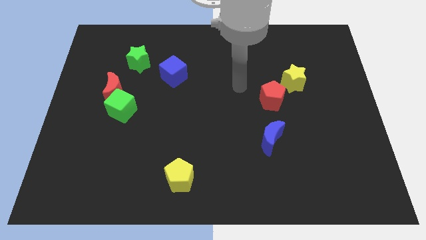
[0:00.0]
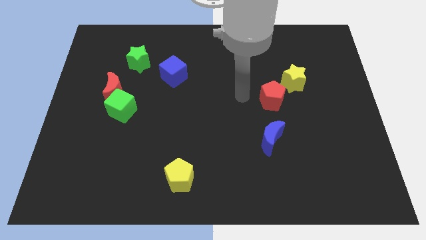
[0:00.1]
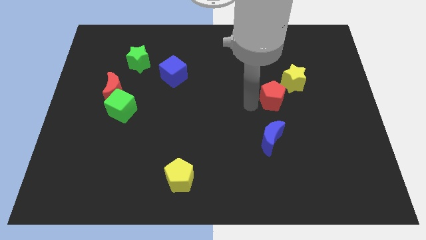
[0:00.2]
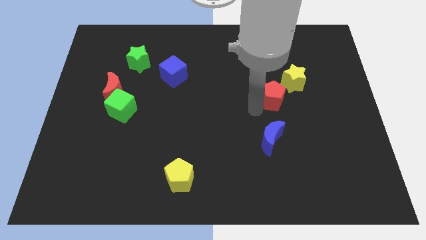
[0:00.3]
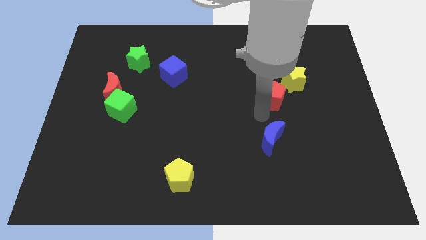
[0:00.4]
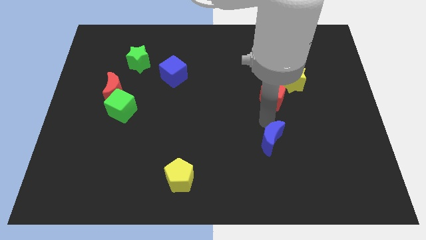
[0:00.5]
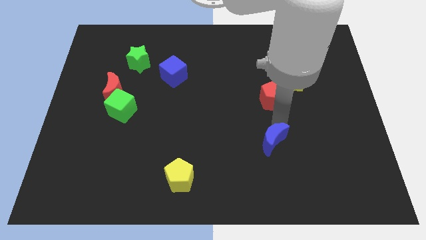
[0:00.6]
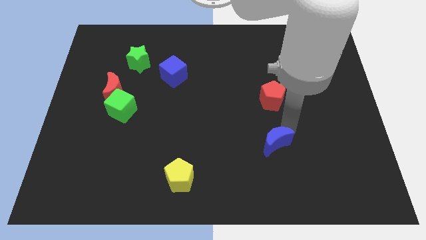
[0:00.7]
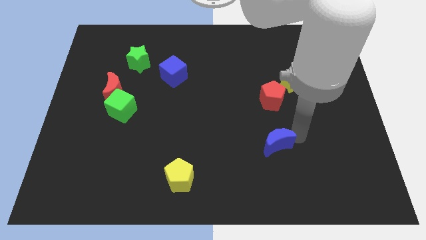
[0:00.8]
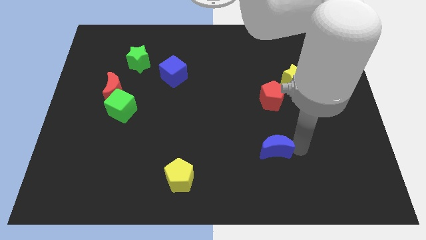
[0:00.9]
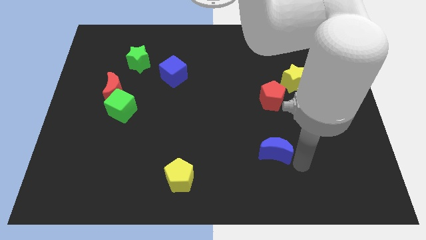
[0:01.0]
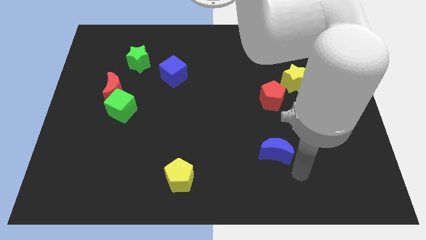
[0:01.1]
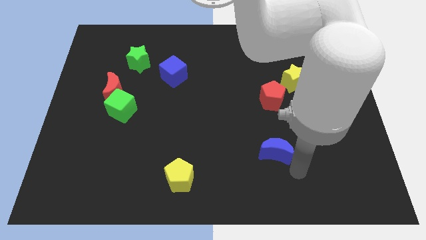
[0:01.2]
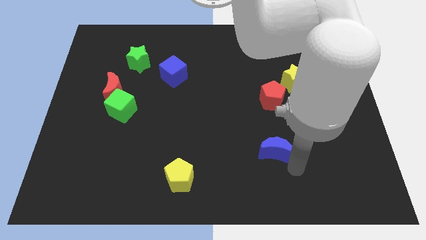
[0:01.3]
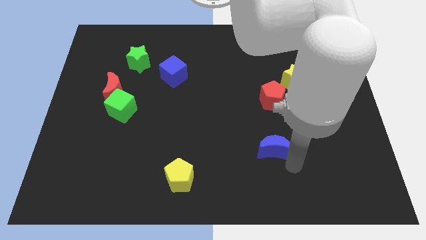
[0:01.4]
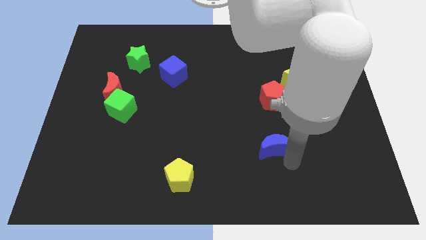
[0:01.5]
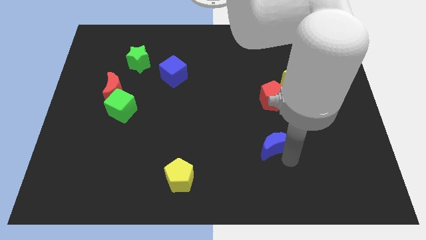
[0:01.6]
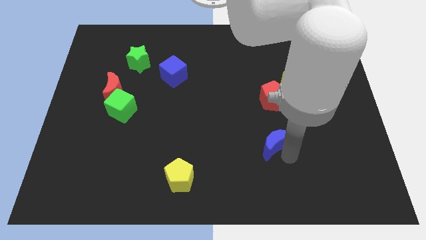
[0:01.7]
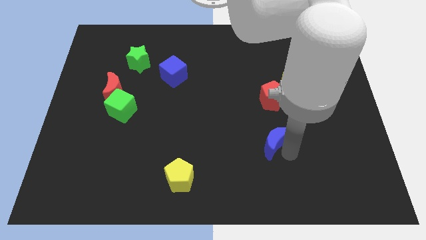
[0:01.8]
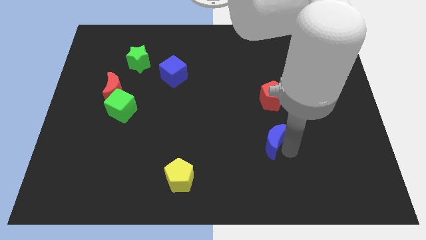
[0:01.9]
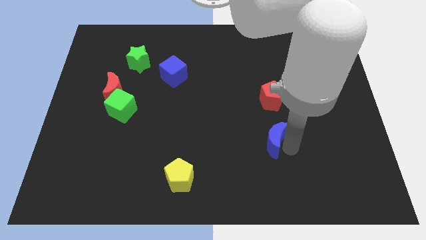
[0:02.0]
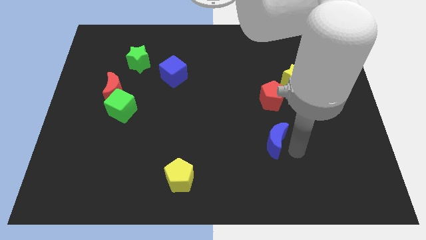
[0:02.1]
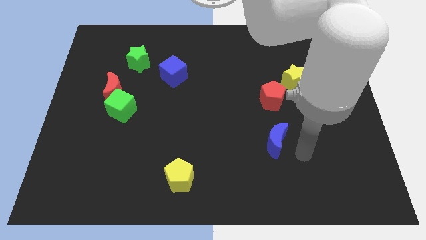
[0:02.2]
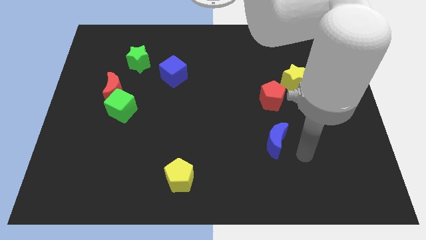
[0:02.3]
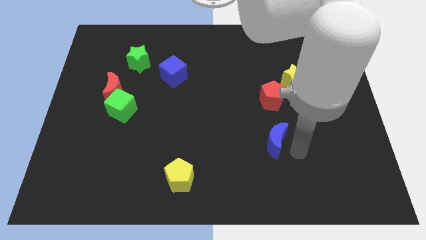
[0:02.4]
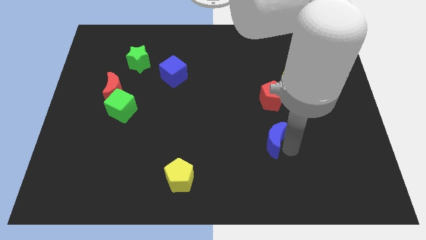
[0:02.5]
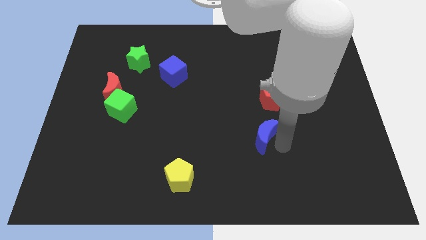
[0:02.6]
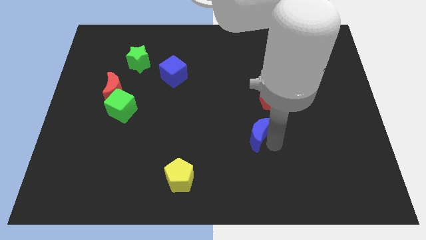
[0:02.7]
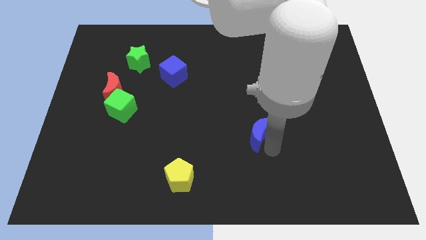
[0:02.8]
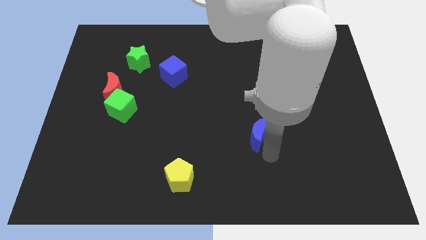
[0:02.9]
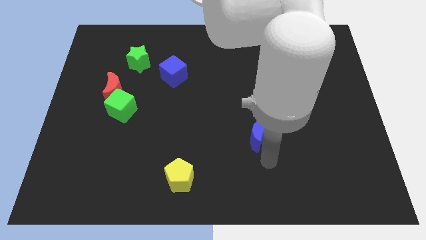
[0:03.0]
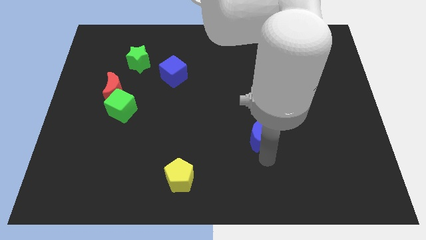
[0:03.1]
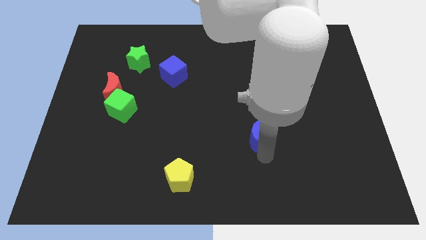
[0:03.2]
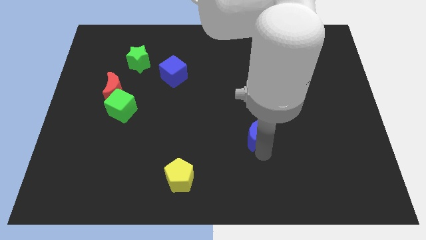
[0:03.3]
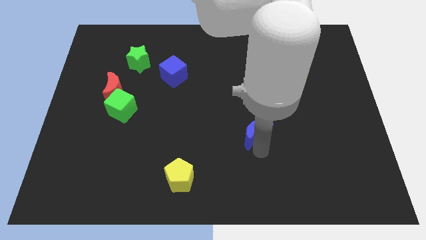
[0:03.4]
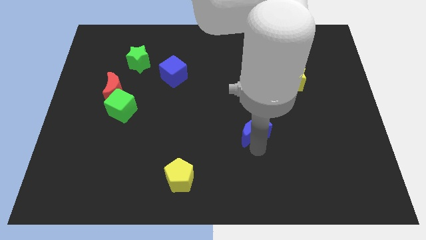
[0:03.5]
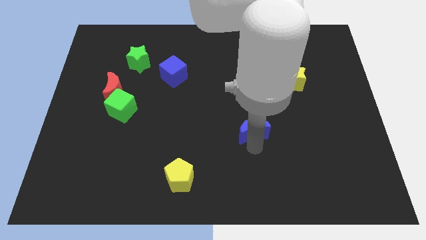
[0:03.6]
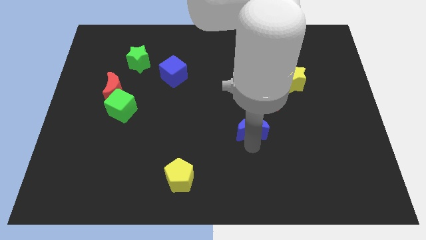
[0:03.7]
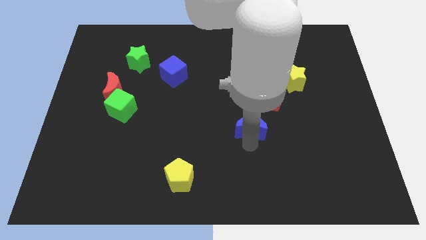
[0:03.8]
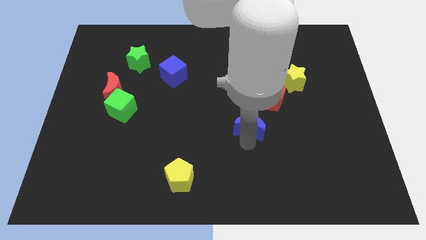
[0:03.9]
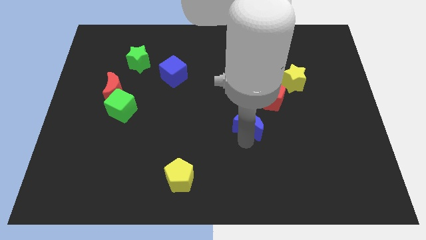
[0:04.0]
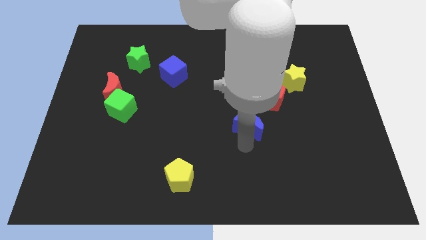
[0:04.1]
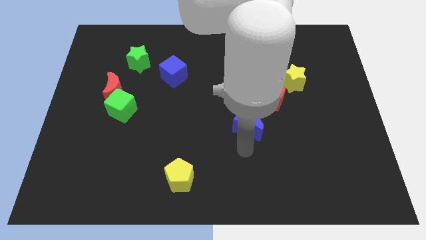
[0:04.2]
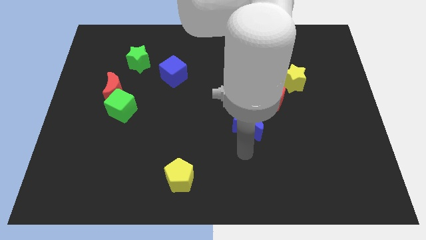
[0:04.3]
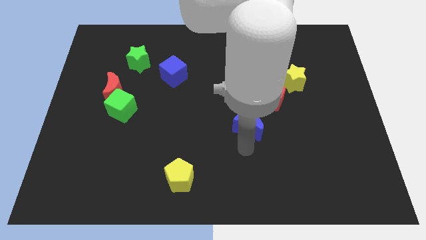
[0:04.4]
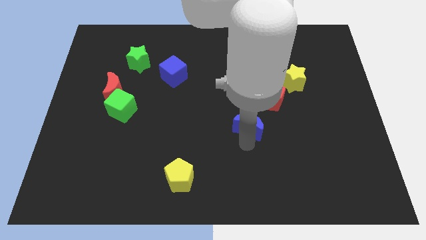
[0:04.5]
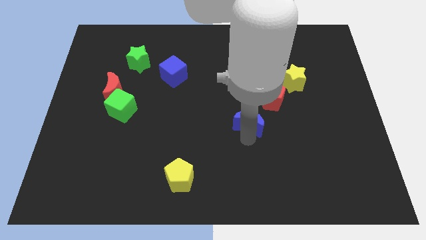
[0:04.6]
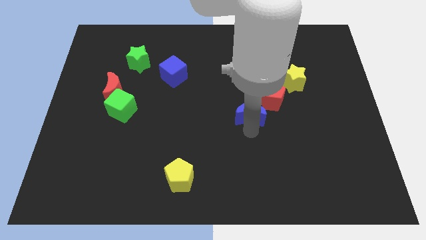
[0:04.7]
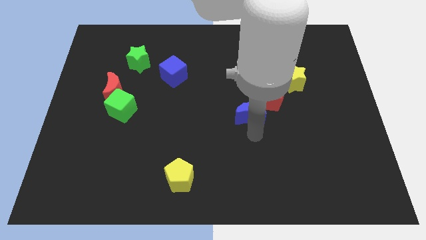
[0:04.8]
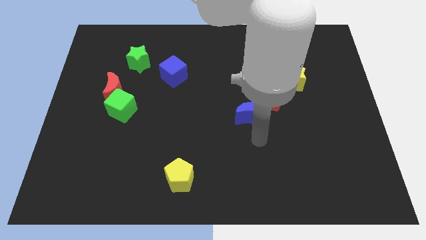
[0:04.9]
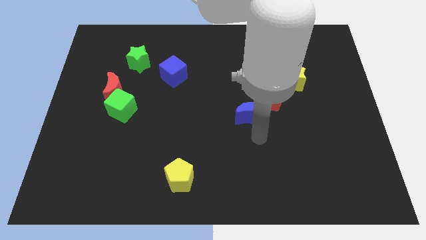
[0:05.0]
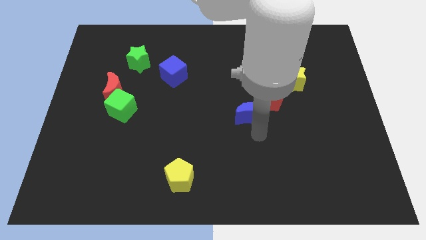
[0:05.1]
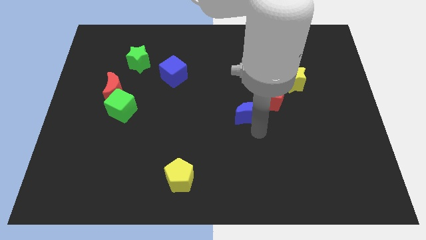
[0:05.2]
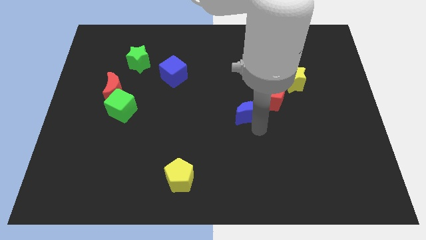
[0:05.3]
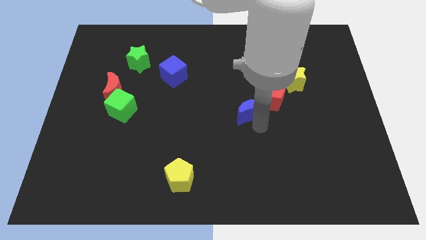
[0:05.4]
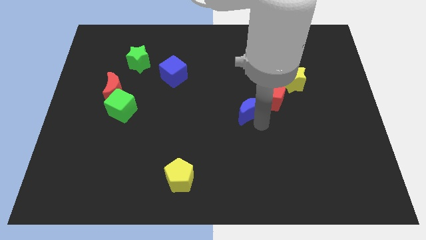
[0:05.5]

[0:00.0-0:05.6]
push the blue moon somewhat up

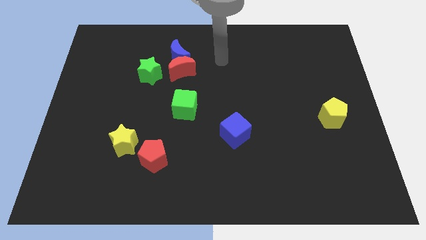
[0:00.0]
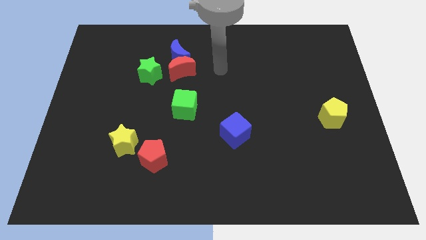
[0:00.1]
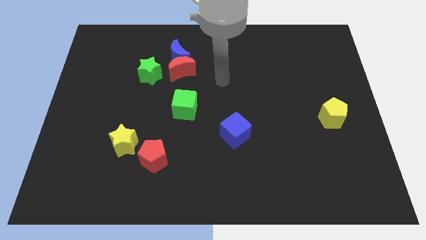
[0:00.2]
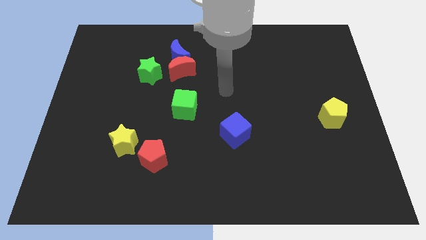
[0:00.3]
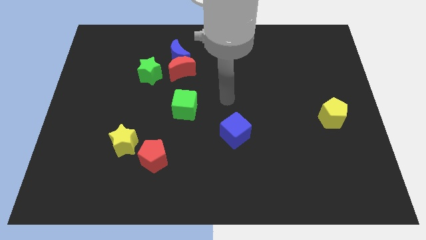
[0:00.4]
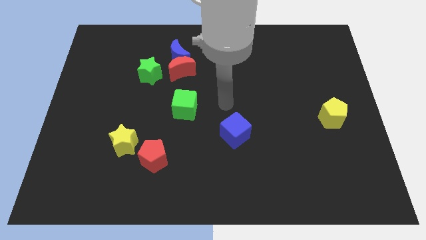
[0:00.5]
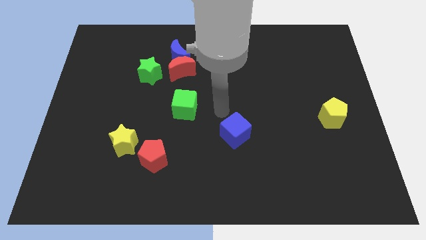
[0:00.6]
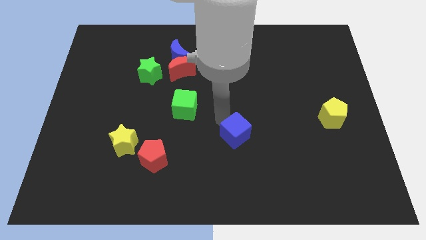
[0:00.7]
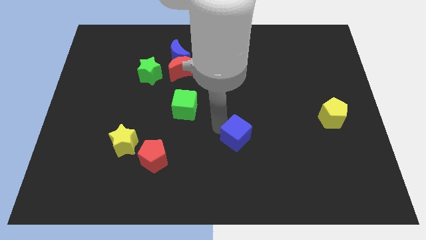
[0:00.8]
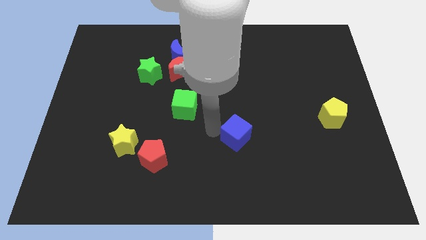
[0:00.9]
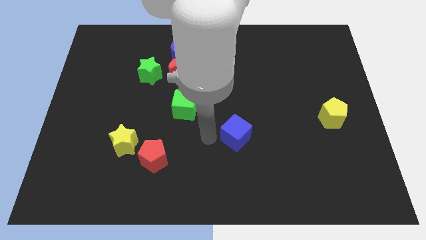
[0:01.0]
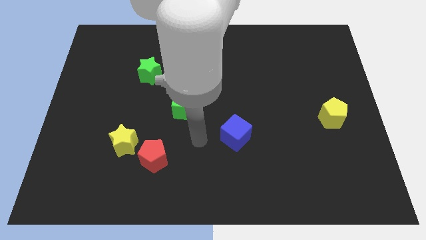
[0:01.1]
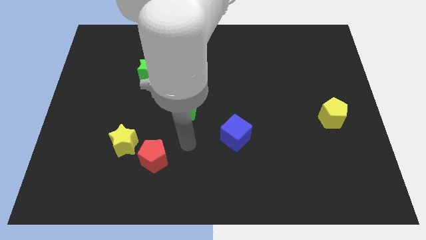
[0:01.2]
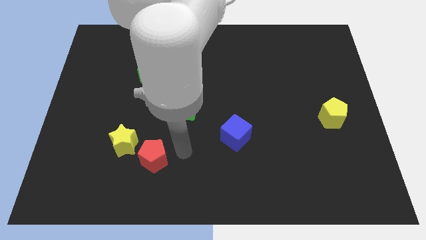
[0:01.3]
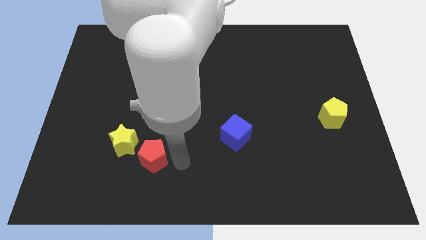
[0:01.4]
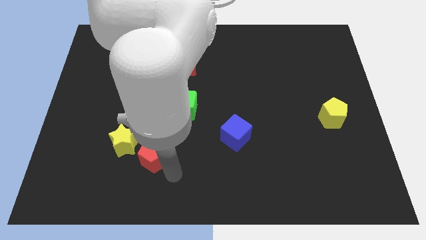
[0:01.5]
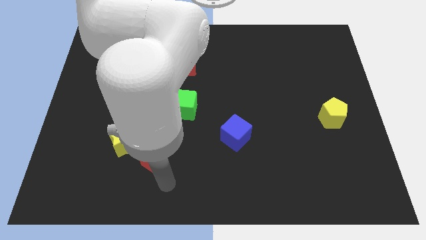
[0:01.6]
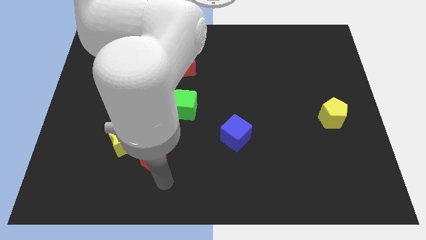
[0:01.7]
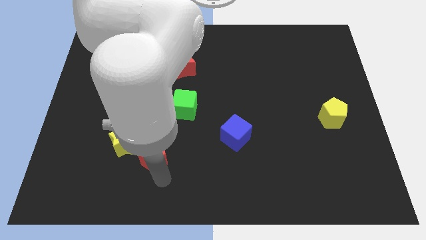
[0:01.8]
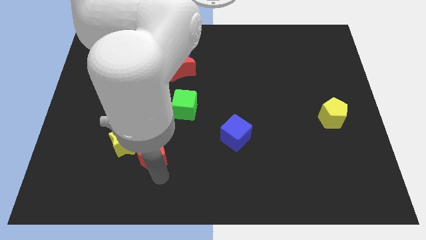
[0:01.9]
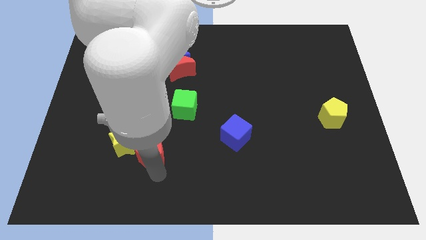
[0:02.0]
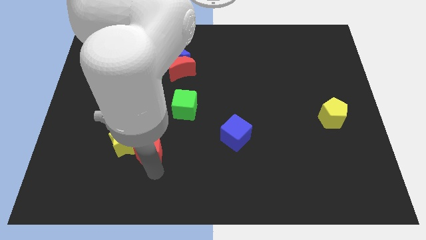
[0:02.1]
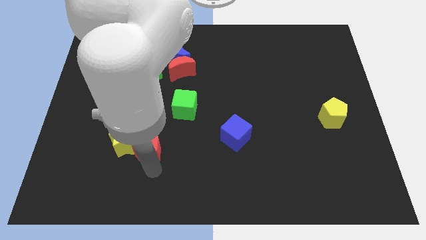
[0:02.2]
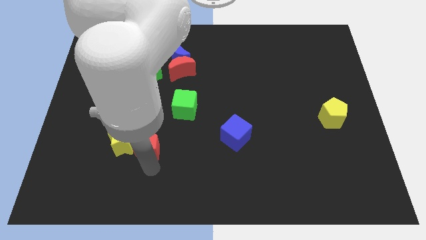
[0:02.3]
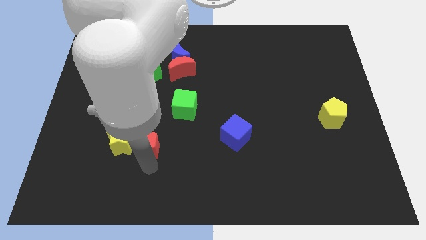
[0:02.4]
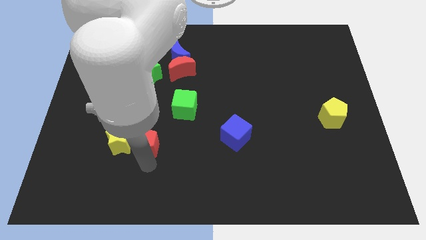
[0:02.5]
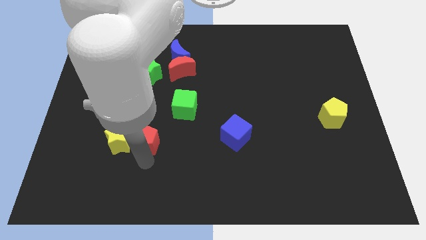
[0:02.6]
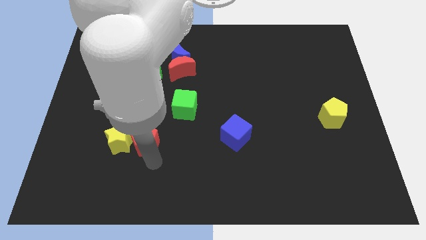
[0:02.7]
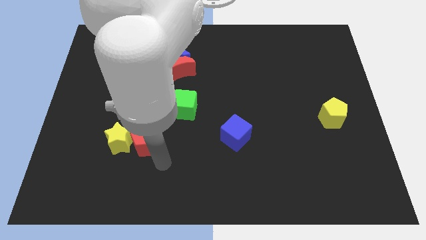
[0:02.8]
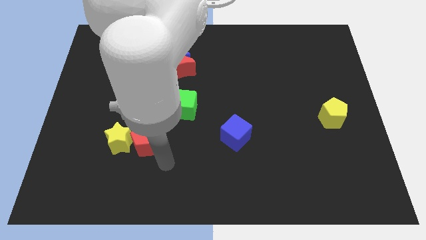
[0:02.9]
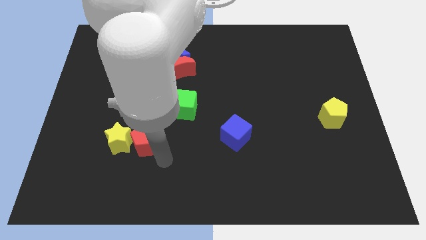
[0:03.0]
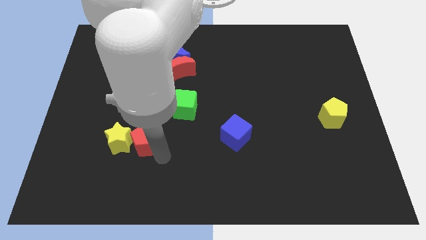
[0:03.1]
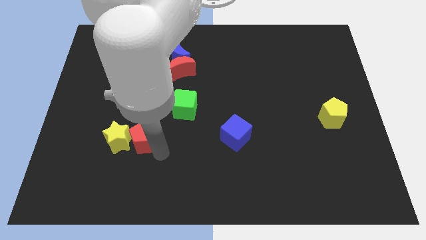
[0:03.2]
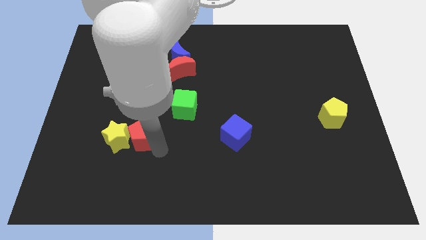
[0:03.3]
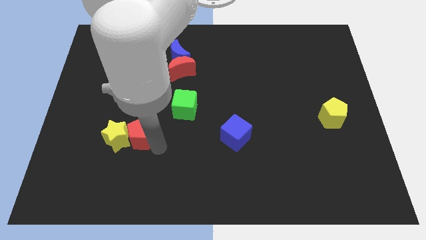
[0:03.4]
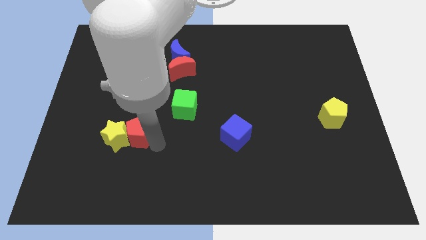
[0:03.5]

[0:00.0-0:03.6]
slide the red pentagon upwards and then to the left a bit
